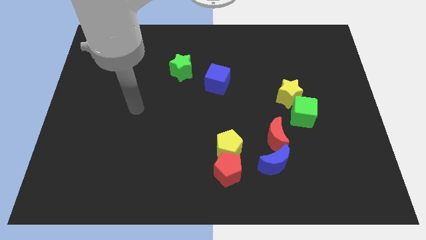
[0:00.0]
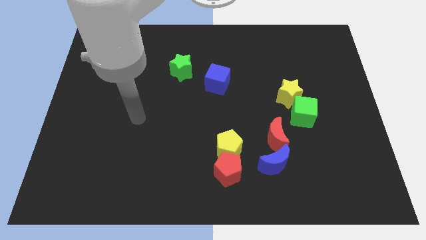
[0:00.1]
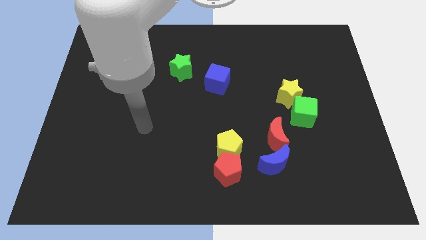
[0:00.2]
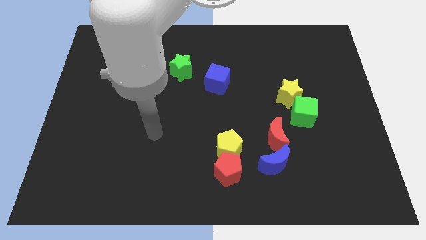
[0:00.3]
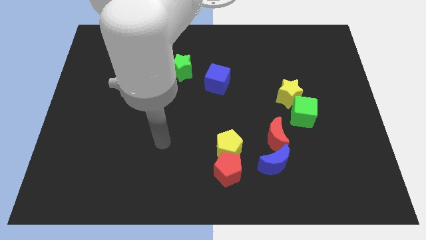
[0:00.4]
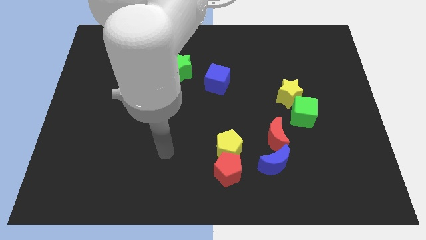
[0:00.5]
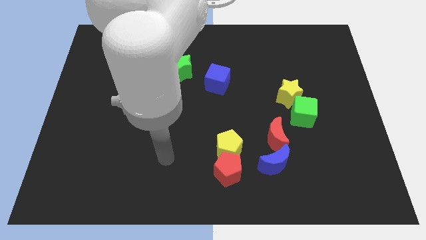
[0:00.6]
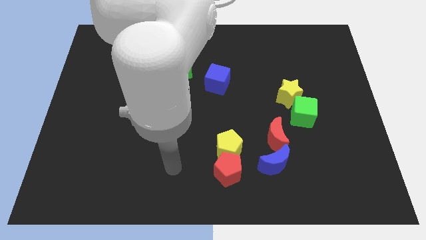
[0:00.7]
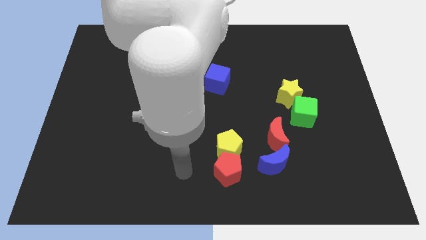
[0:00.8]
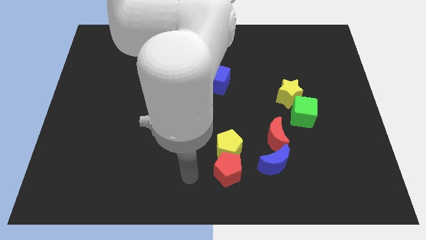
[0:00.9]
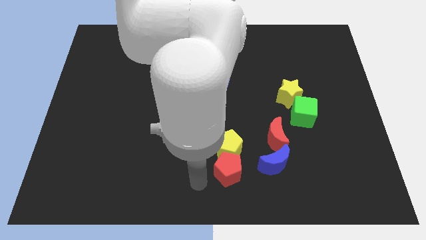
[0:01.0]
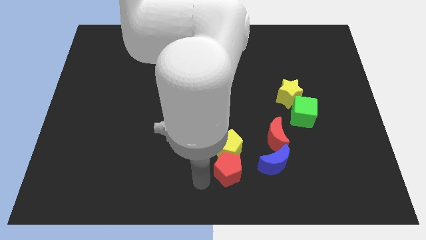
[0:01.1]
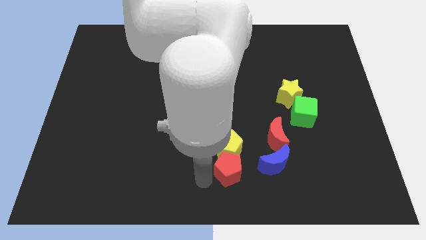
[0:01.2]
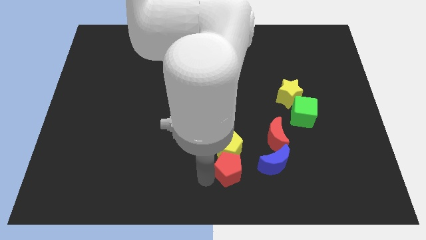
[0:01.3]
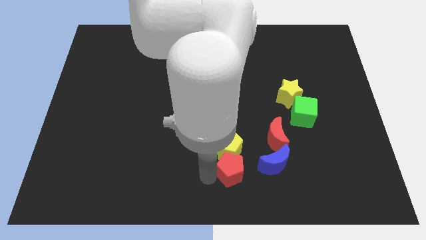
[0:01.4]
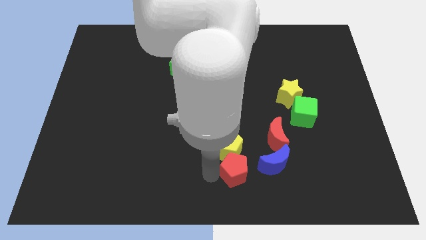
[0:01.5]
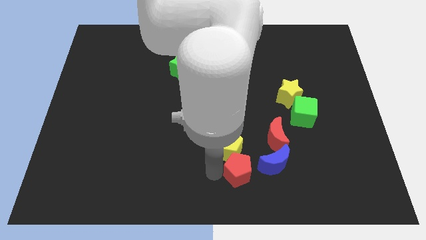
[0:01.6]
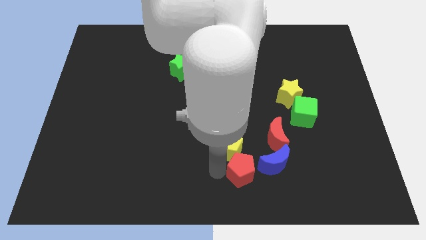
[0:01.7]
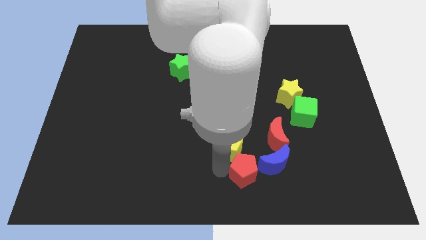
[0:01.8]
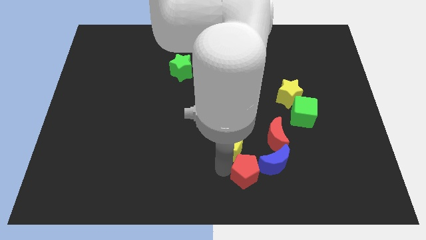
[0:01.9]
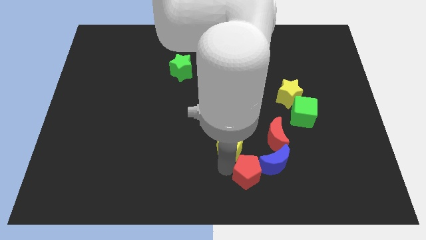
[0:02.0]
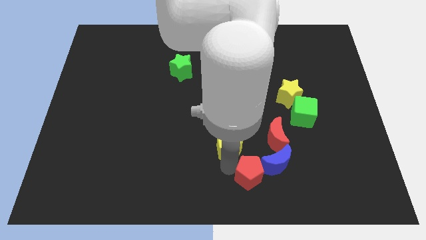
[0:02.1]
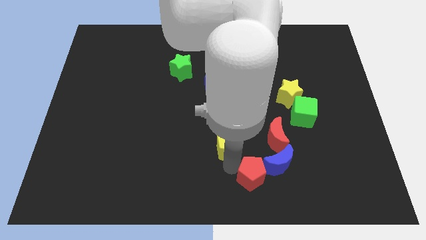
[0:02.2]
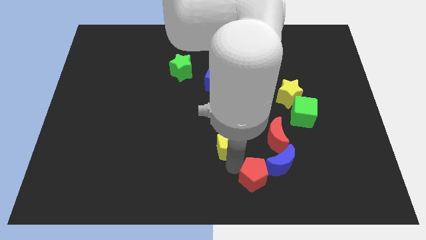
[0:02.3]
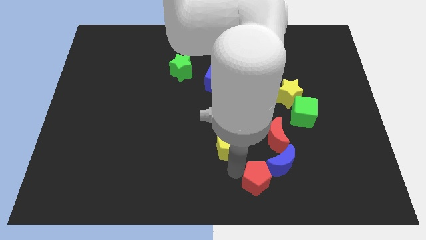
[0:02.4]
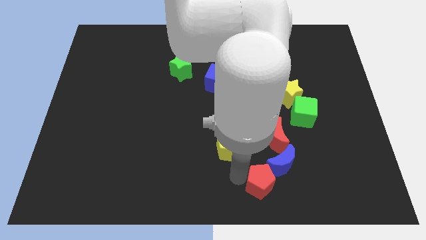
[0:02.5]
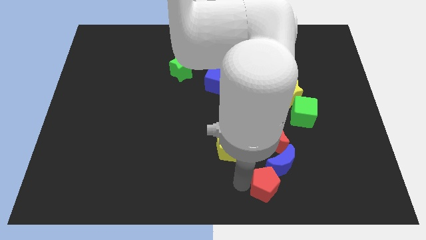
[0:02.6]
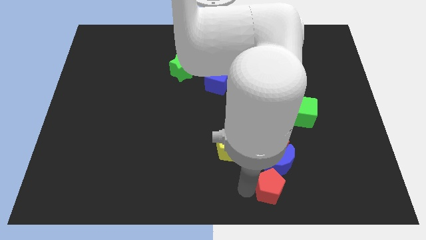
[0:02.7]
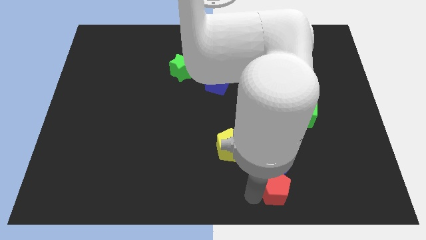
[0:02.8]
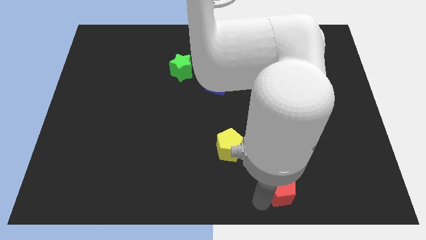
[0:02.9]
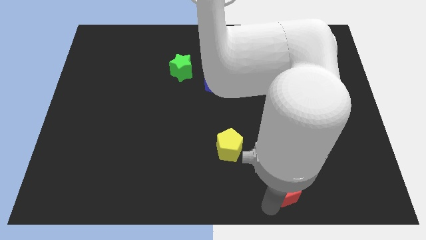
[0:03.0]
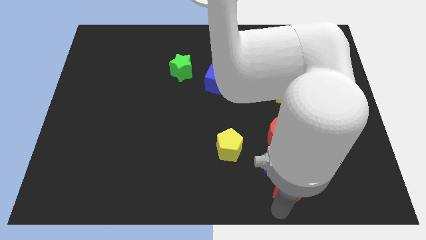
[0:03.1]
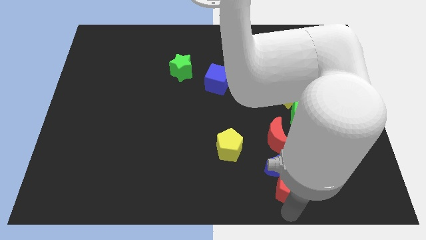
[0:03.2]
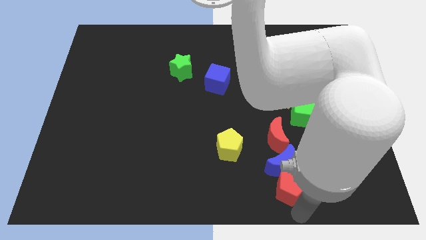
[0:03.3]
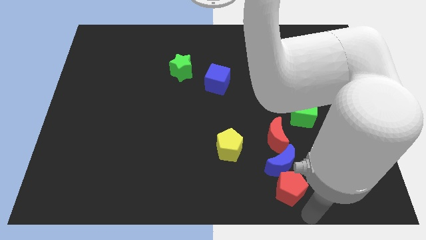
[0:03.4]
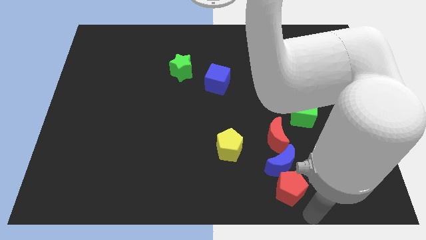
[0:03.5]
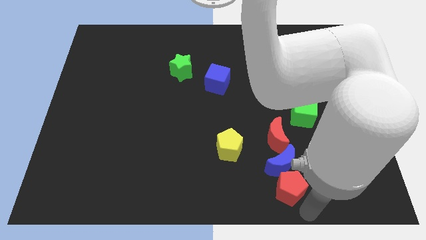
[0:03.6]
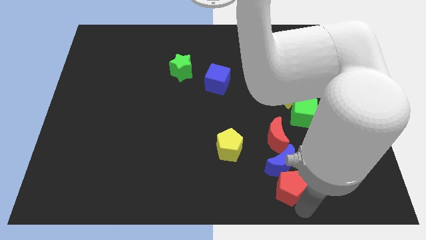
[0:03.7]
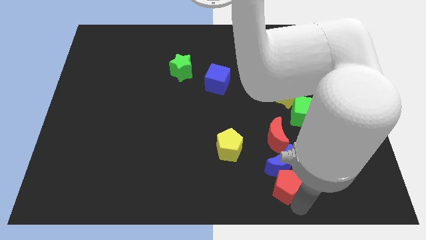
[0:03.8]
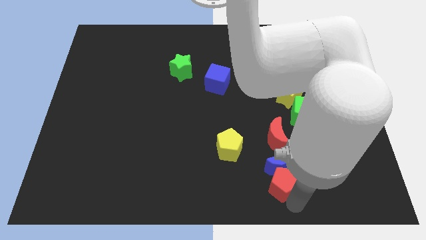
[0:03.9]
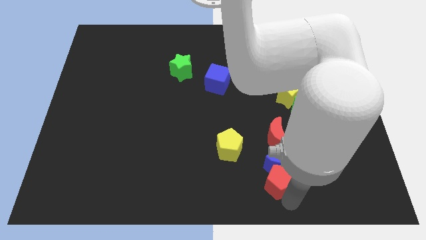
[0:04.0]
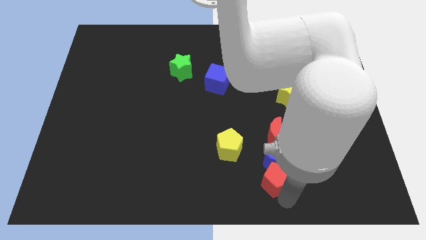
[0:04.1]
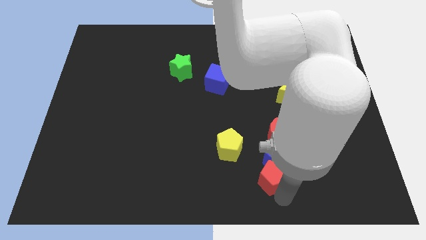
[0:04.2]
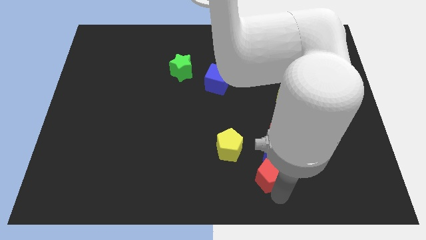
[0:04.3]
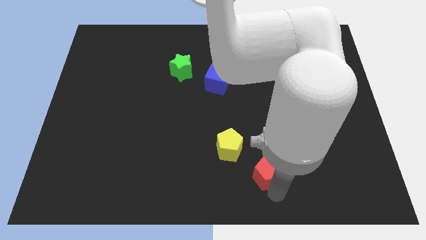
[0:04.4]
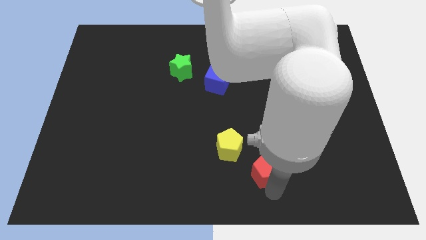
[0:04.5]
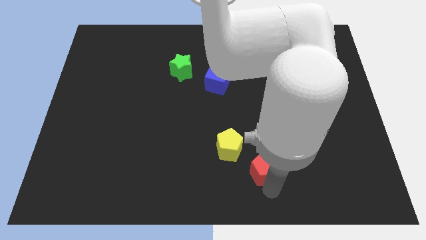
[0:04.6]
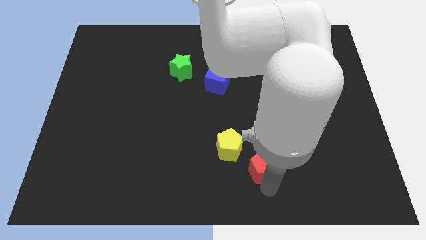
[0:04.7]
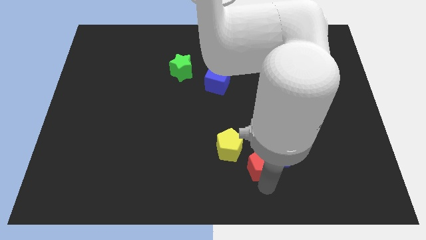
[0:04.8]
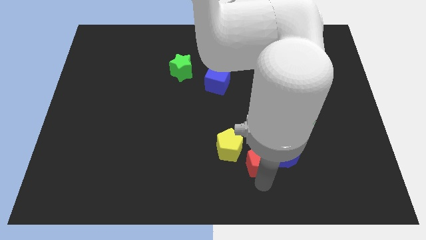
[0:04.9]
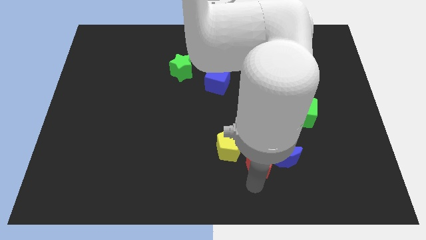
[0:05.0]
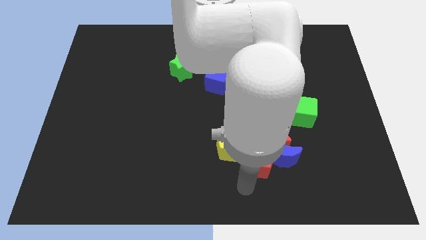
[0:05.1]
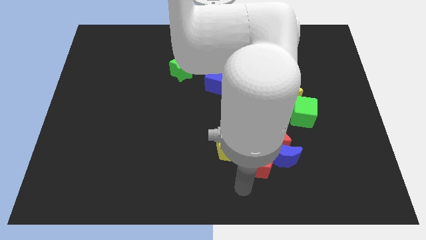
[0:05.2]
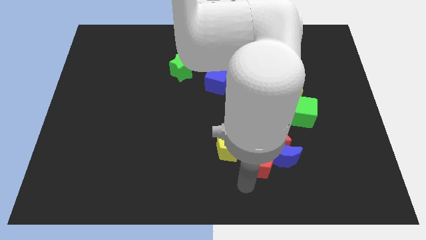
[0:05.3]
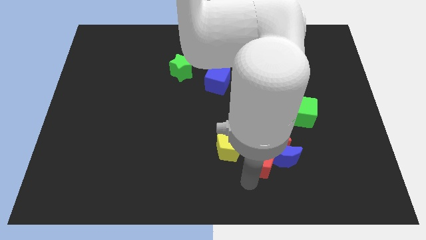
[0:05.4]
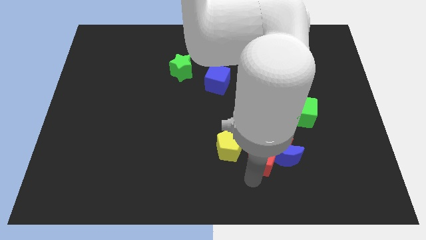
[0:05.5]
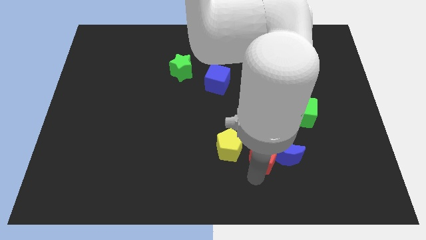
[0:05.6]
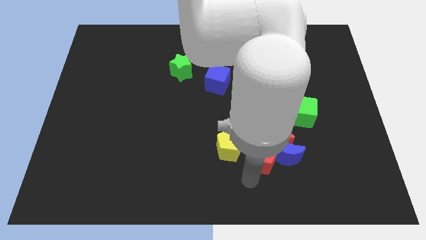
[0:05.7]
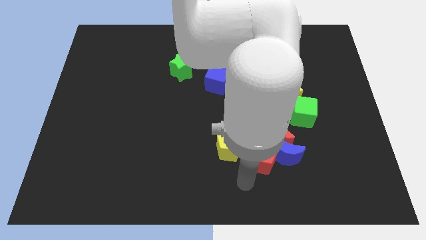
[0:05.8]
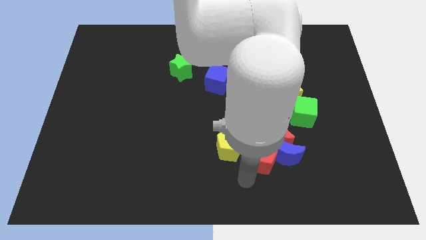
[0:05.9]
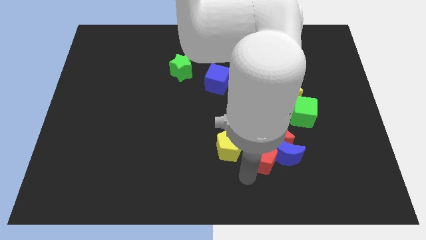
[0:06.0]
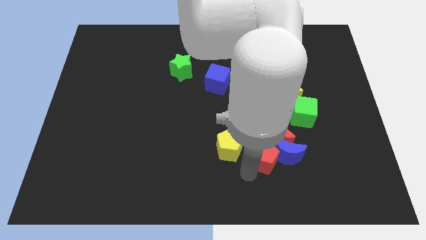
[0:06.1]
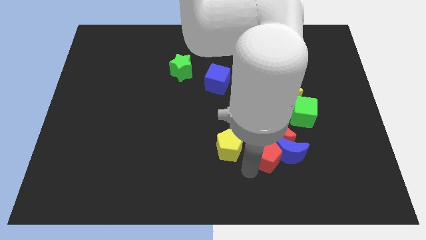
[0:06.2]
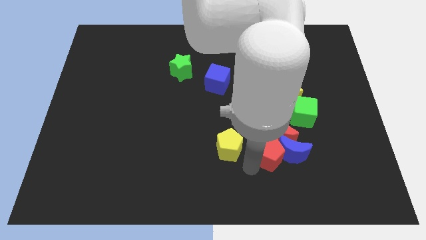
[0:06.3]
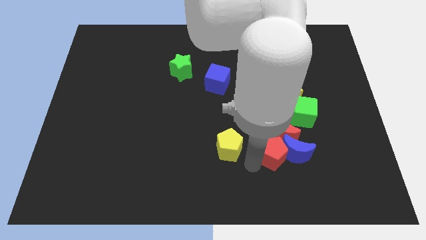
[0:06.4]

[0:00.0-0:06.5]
put the red pentagon next to the red moon
